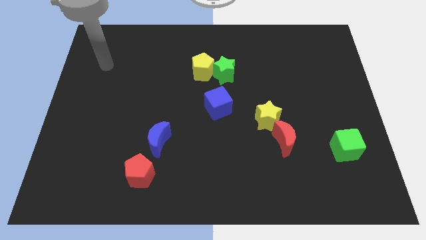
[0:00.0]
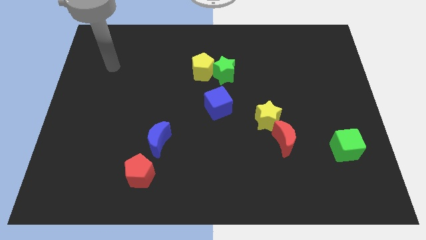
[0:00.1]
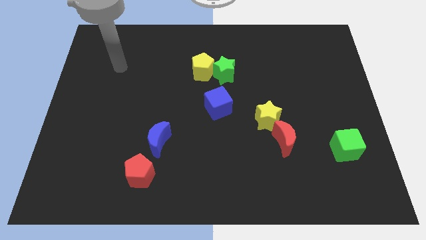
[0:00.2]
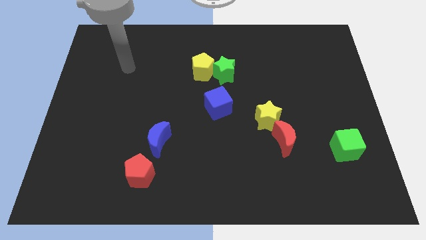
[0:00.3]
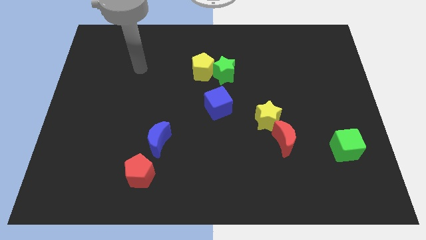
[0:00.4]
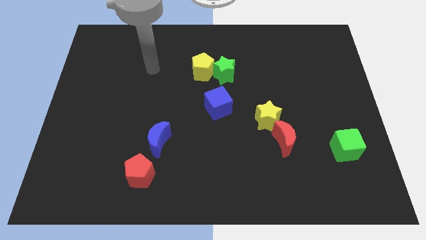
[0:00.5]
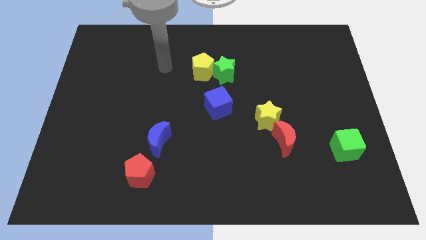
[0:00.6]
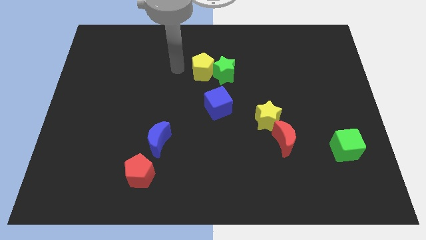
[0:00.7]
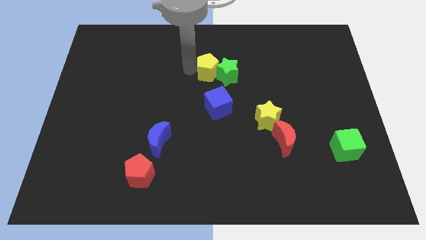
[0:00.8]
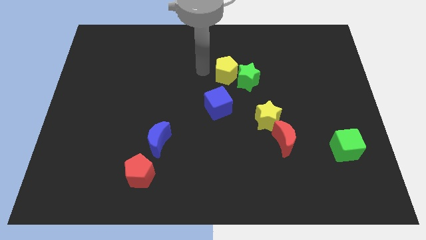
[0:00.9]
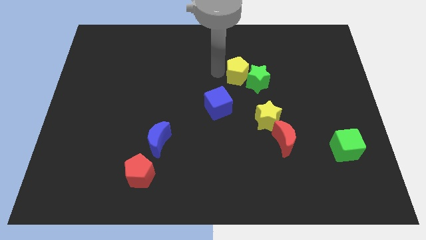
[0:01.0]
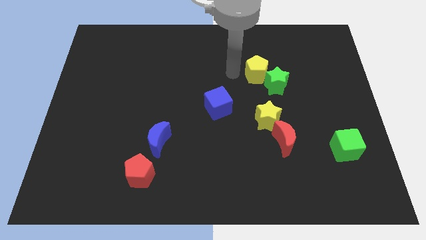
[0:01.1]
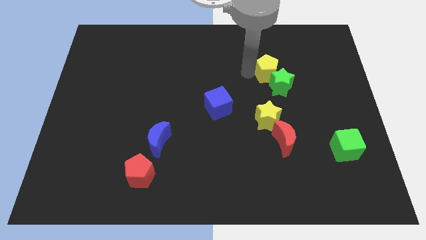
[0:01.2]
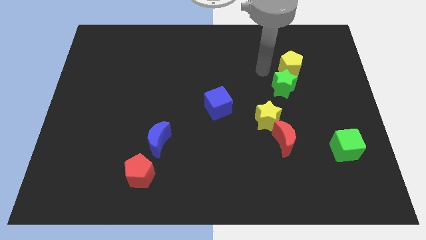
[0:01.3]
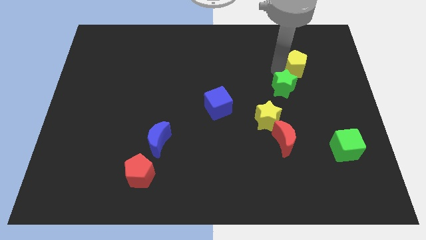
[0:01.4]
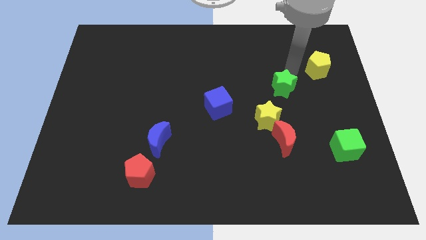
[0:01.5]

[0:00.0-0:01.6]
pull the green star apart from the yellow pentagon

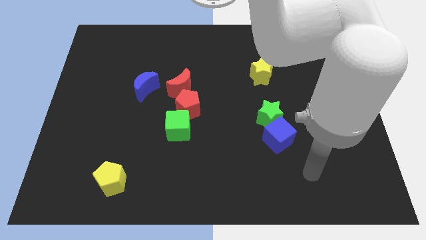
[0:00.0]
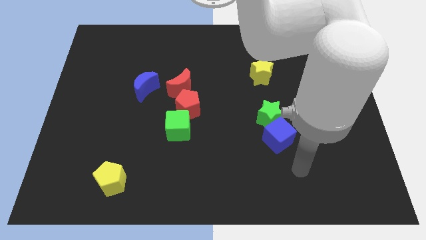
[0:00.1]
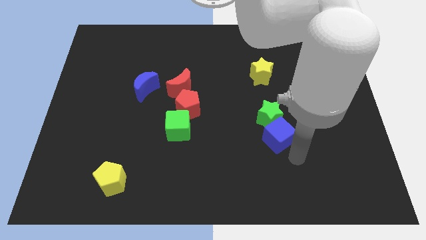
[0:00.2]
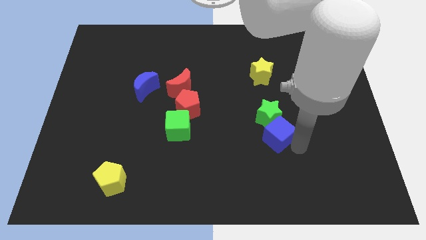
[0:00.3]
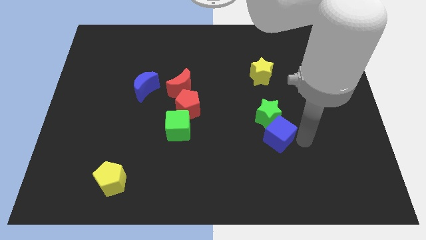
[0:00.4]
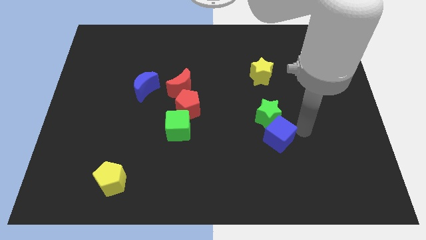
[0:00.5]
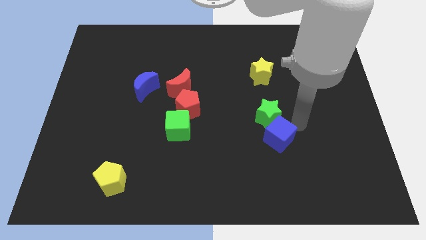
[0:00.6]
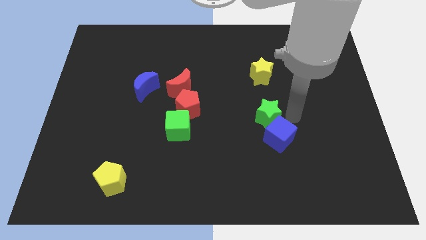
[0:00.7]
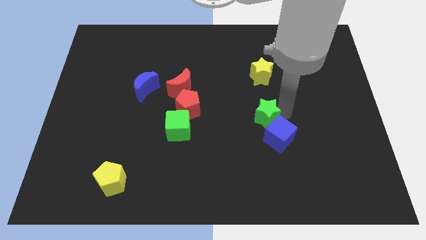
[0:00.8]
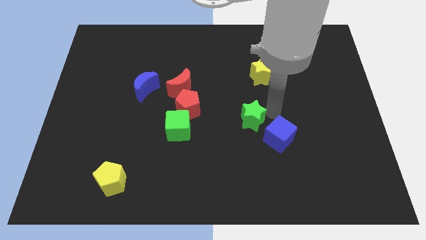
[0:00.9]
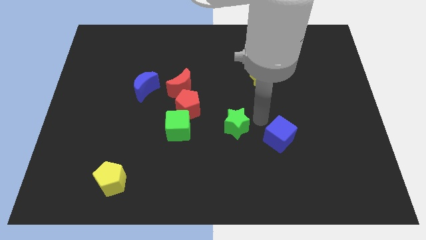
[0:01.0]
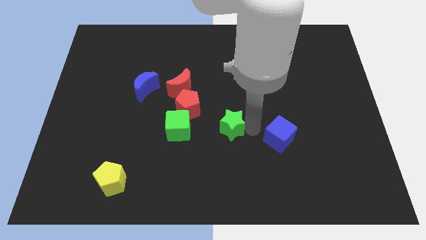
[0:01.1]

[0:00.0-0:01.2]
separate the blue cube from the green star

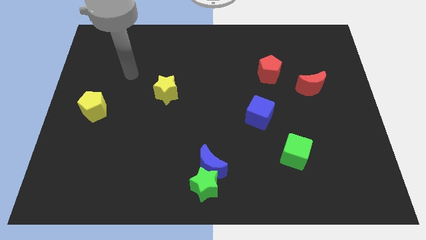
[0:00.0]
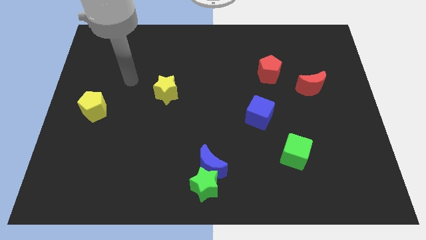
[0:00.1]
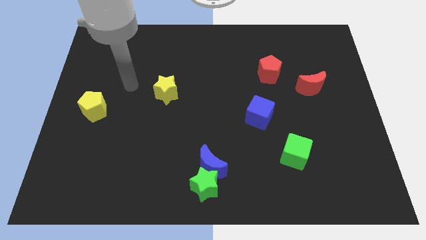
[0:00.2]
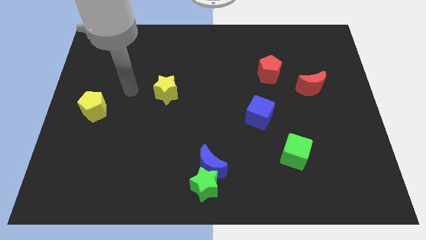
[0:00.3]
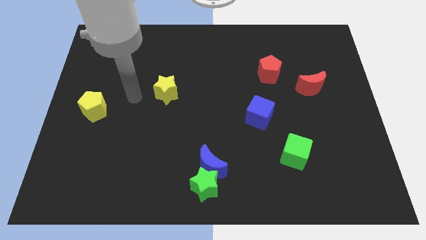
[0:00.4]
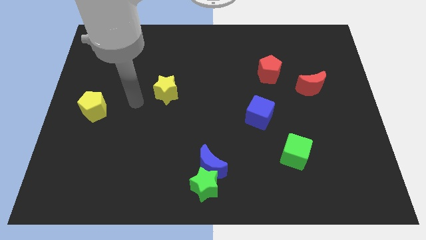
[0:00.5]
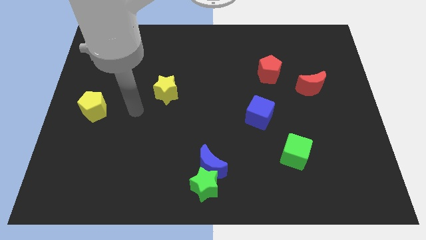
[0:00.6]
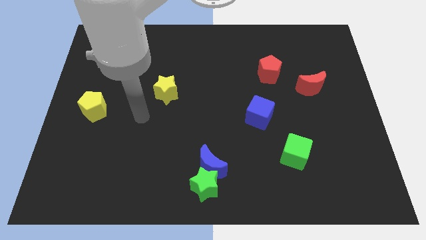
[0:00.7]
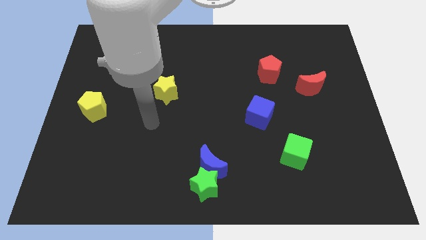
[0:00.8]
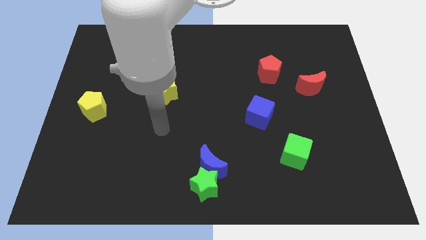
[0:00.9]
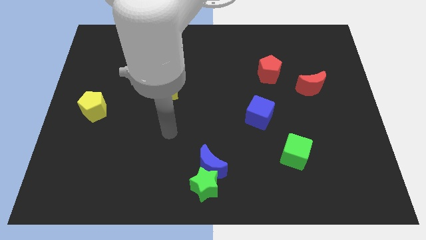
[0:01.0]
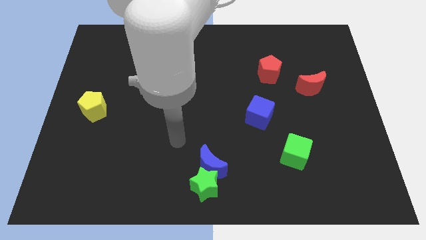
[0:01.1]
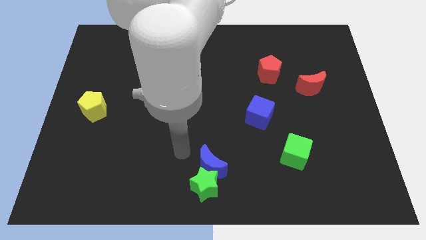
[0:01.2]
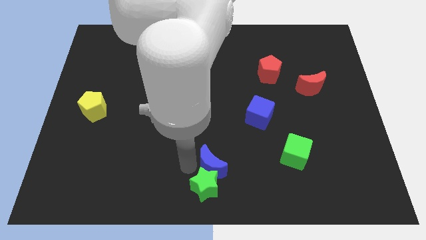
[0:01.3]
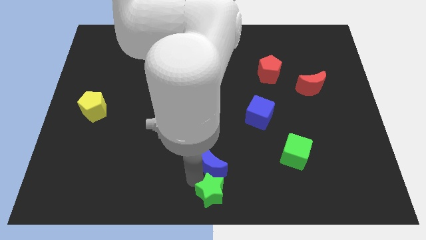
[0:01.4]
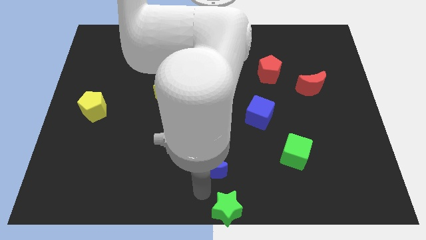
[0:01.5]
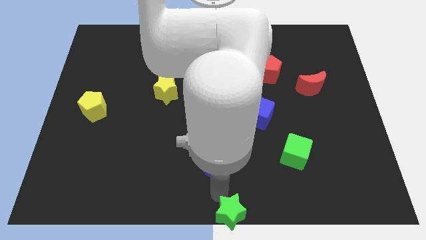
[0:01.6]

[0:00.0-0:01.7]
move the blue moon away from the green star

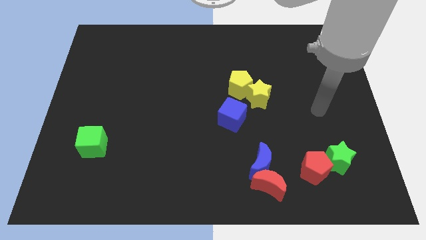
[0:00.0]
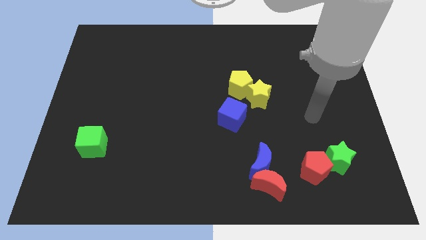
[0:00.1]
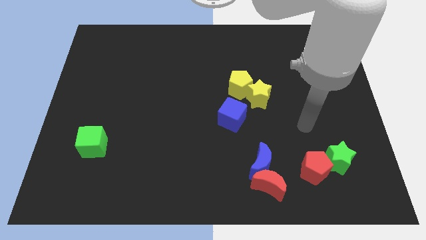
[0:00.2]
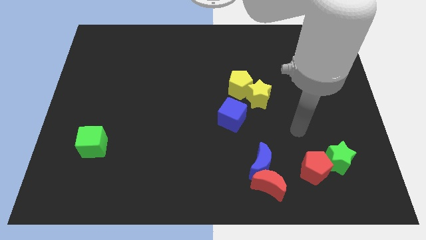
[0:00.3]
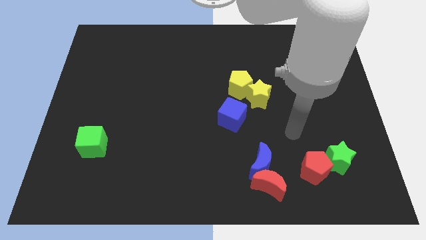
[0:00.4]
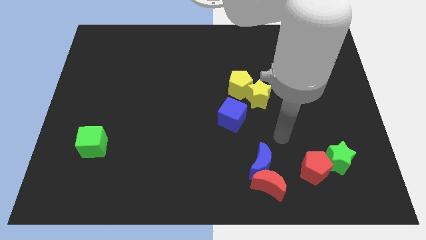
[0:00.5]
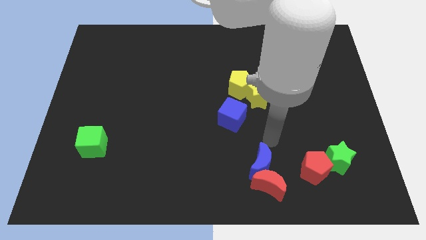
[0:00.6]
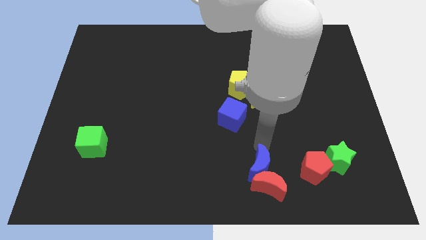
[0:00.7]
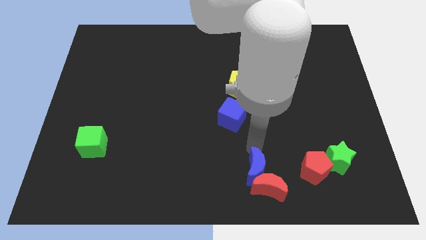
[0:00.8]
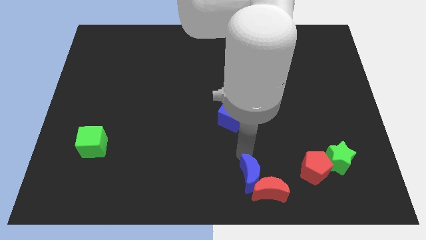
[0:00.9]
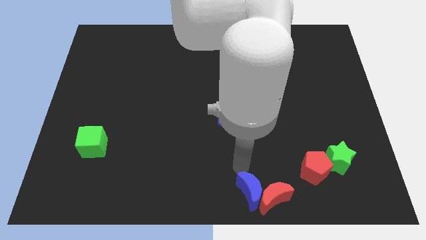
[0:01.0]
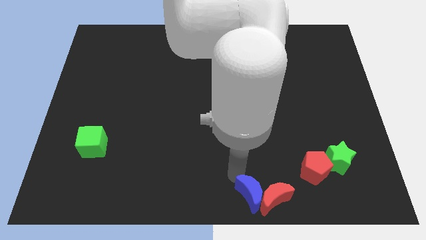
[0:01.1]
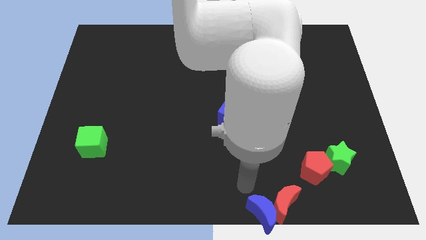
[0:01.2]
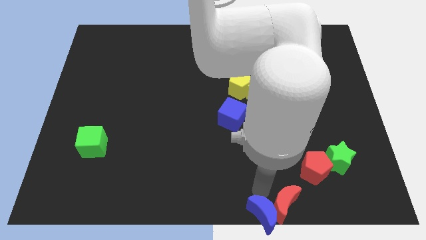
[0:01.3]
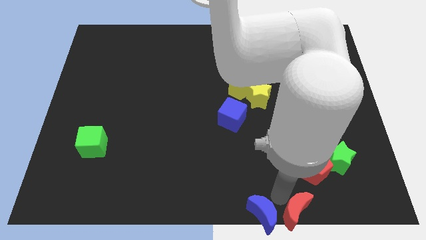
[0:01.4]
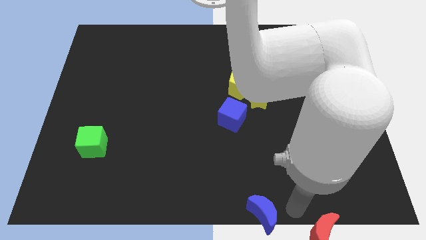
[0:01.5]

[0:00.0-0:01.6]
pull the blue moon apart from the red moon

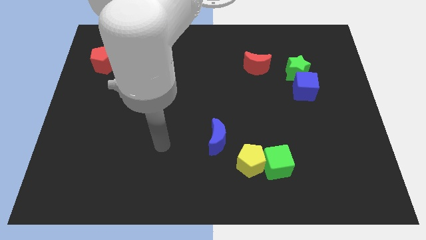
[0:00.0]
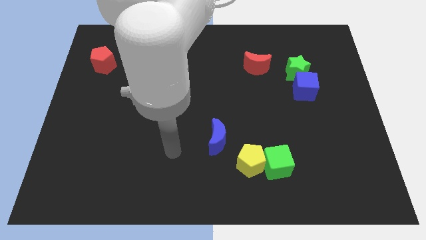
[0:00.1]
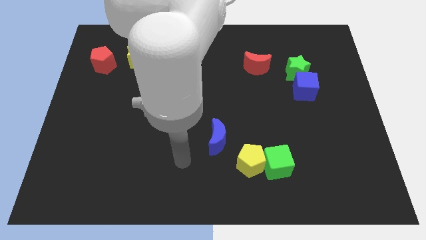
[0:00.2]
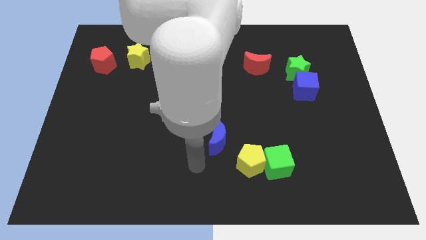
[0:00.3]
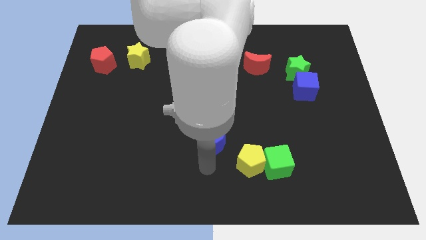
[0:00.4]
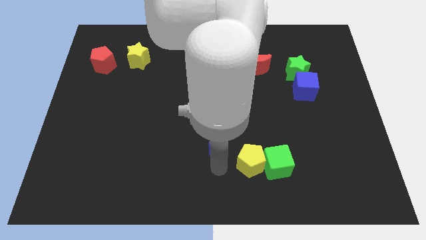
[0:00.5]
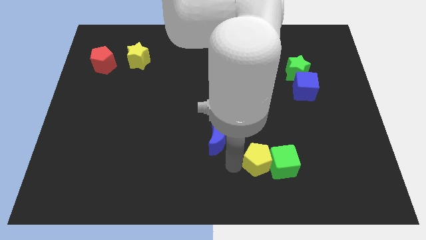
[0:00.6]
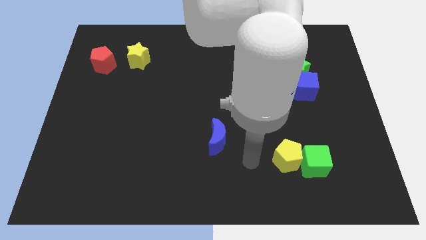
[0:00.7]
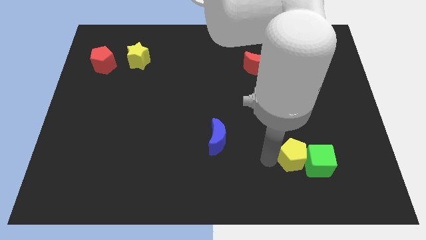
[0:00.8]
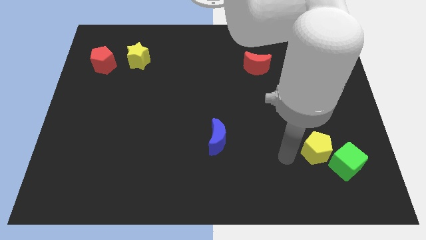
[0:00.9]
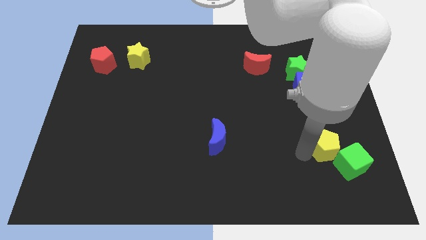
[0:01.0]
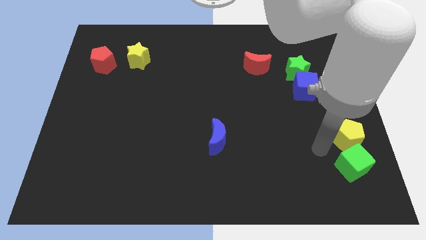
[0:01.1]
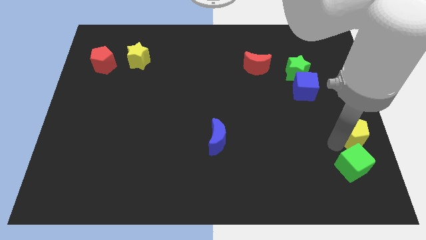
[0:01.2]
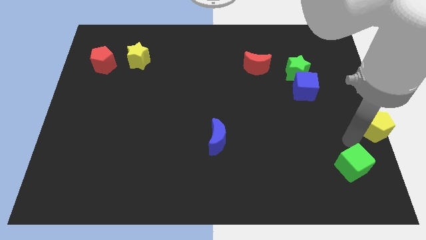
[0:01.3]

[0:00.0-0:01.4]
pull the green cube apart from the yellow pentagon

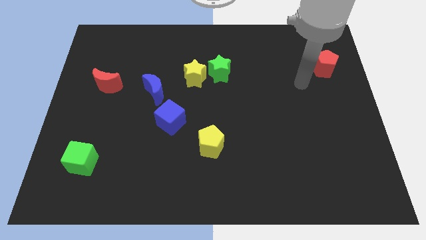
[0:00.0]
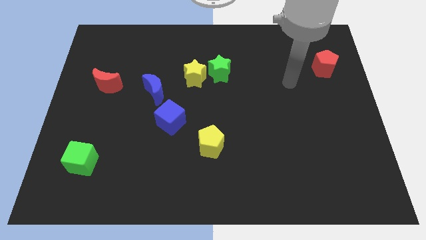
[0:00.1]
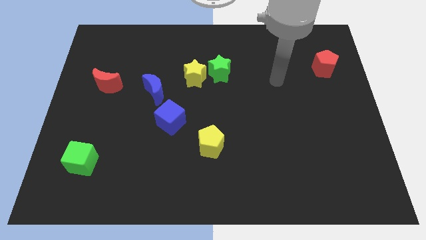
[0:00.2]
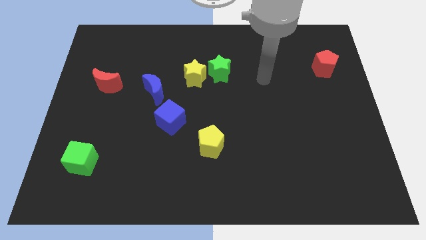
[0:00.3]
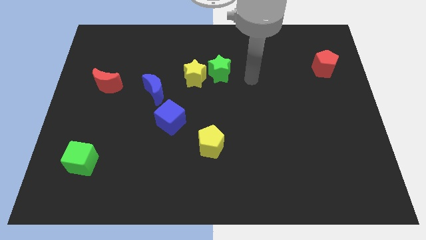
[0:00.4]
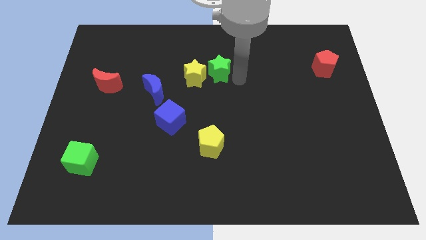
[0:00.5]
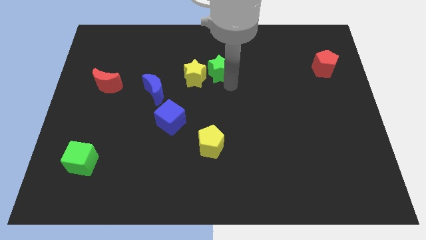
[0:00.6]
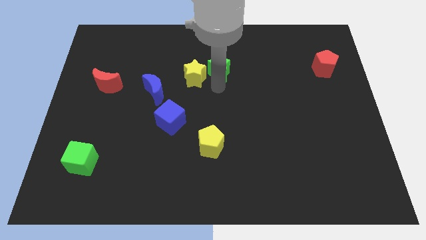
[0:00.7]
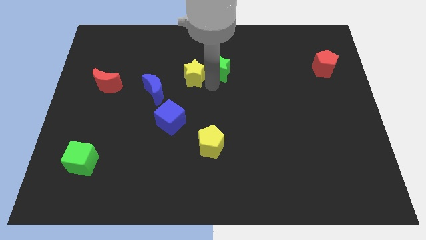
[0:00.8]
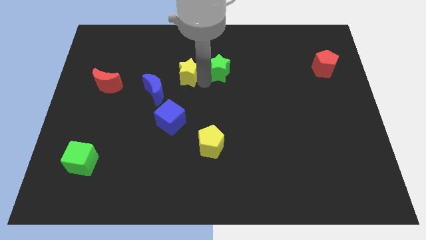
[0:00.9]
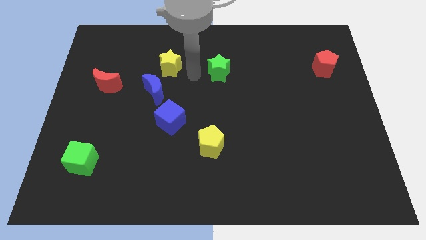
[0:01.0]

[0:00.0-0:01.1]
separate the green star from the yellow star

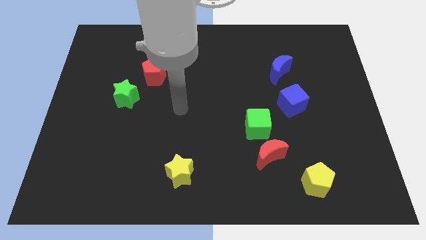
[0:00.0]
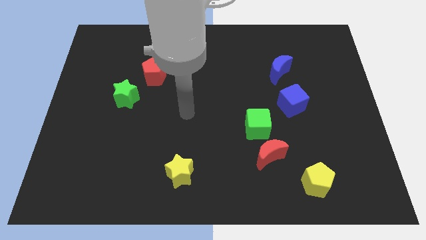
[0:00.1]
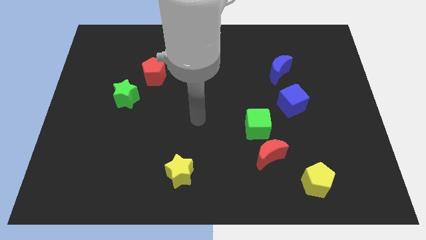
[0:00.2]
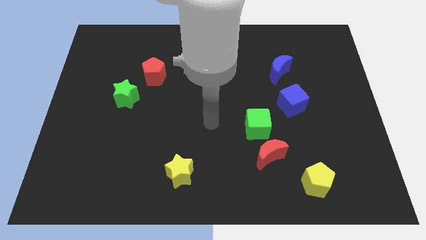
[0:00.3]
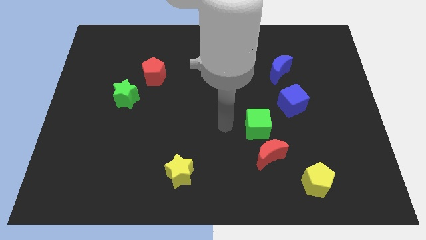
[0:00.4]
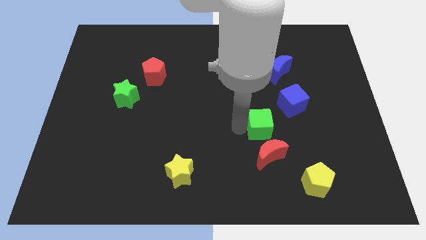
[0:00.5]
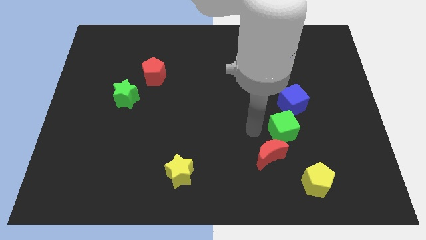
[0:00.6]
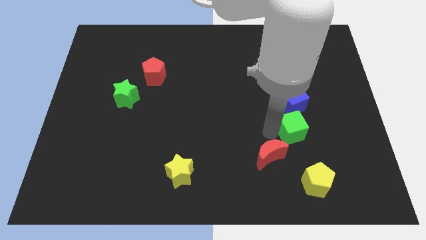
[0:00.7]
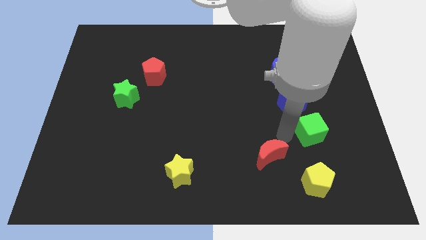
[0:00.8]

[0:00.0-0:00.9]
separate the red moon from the green cube
